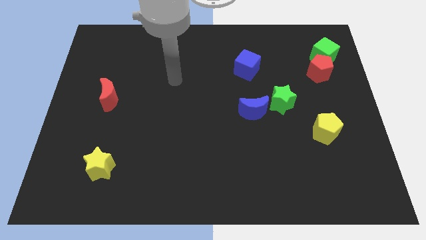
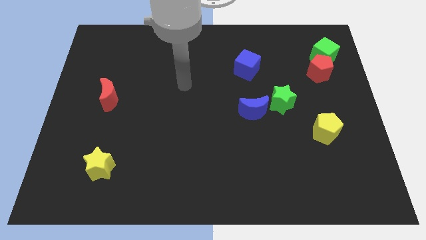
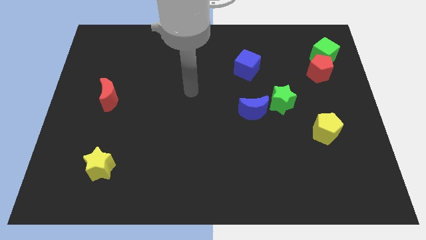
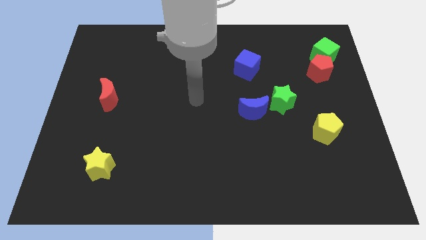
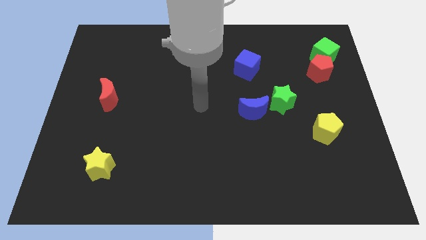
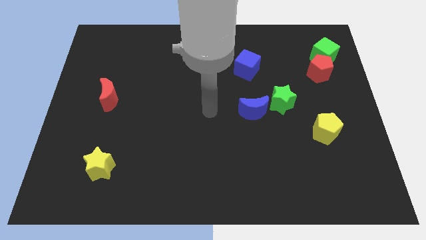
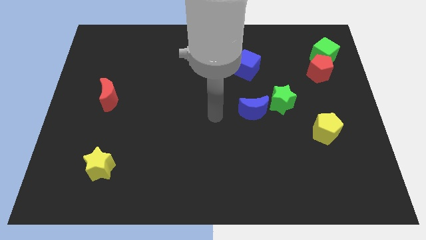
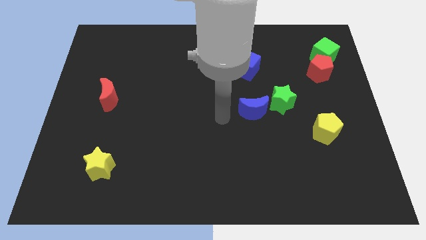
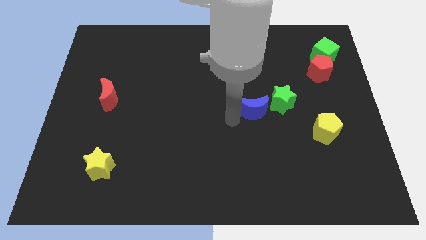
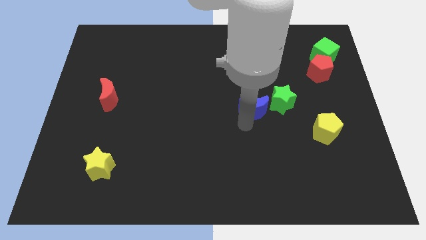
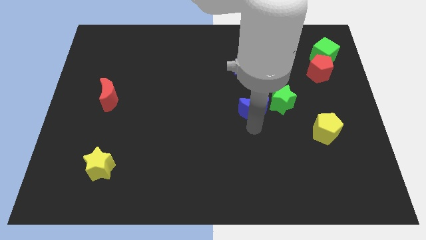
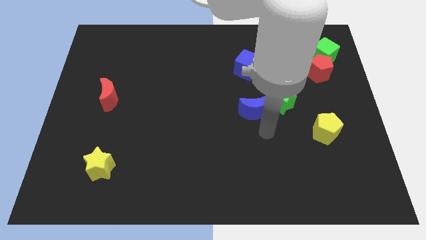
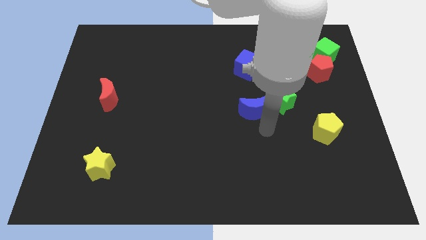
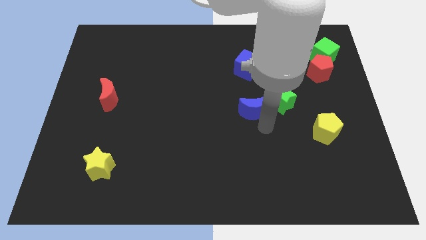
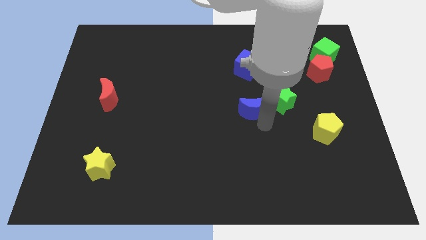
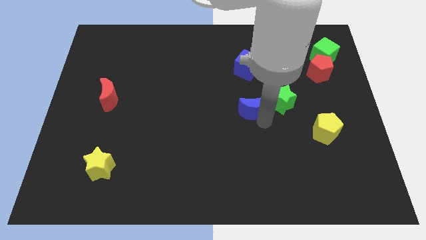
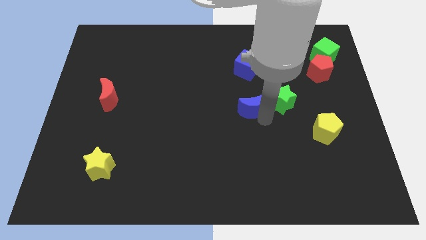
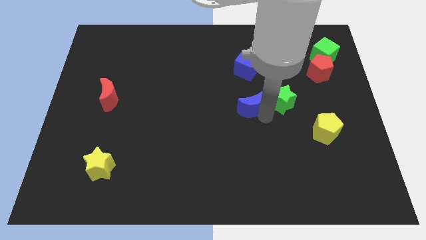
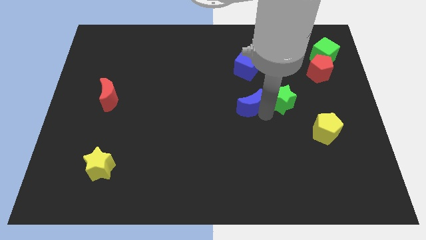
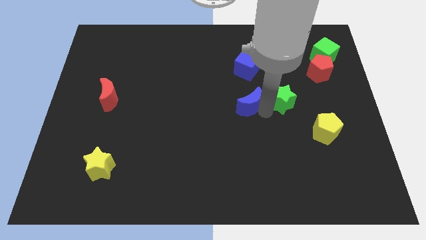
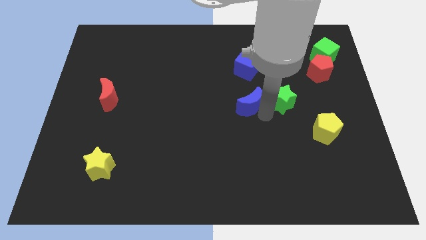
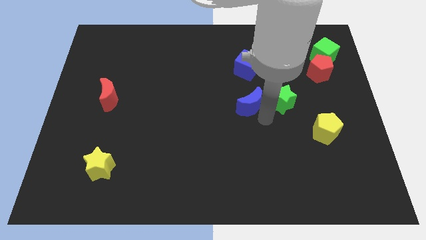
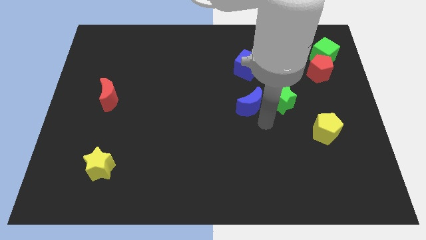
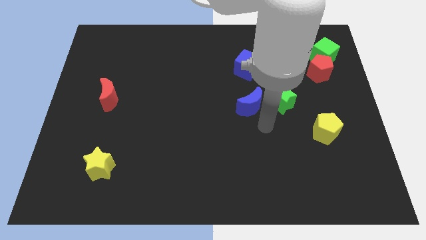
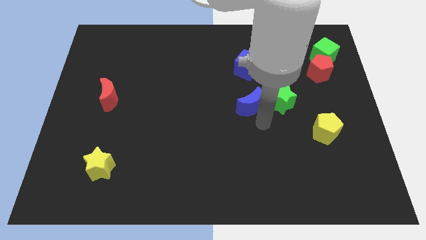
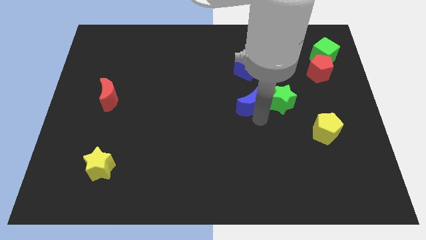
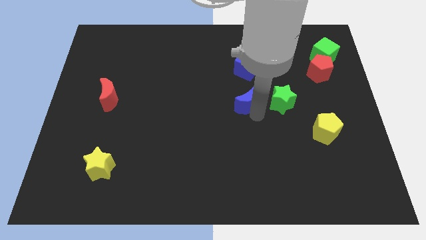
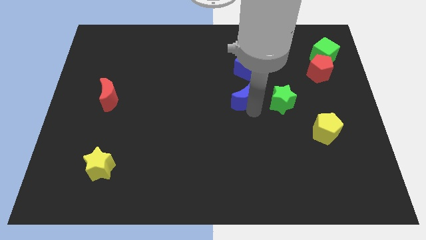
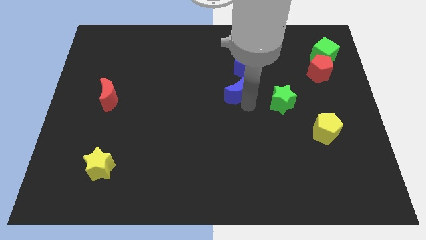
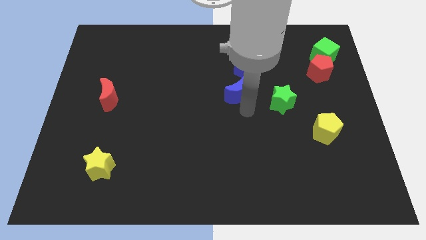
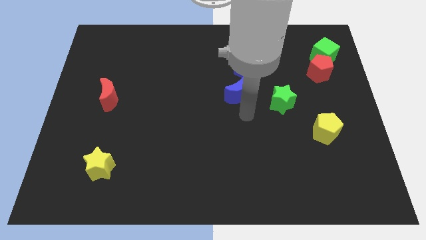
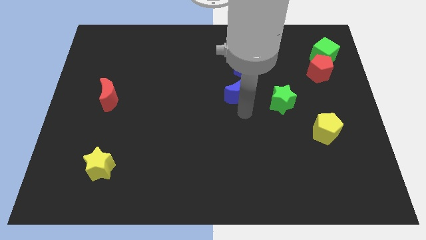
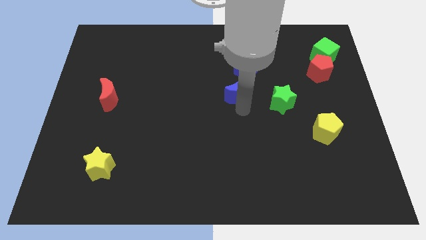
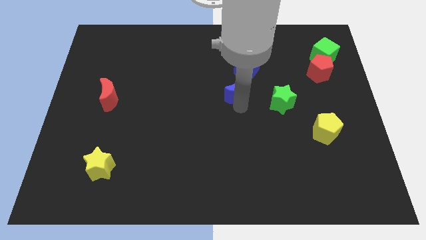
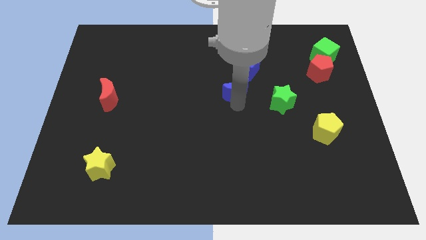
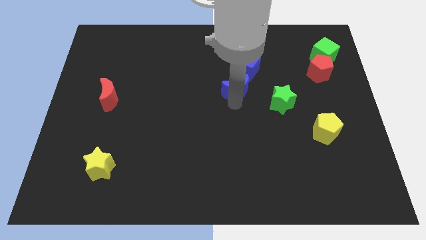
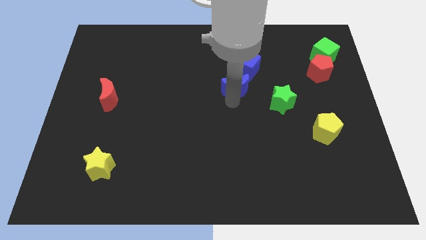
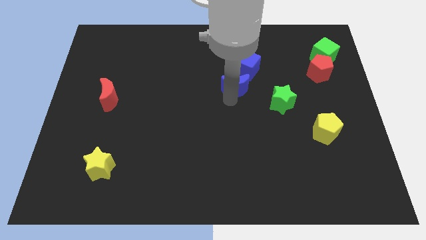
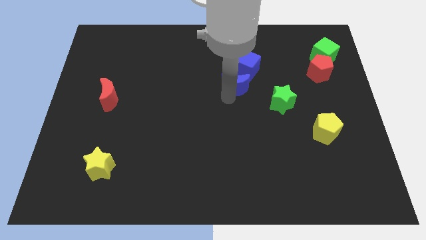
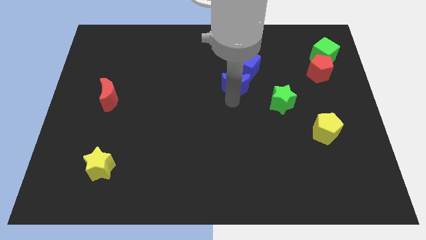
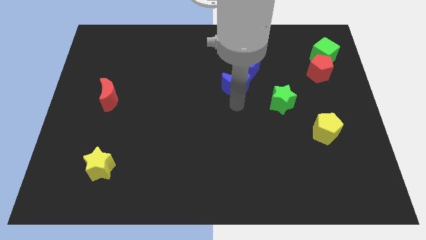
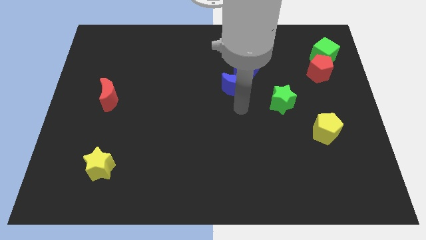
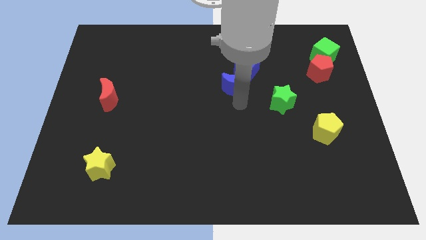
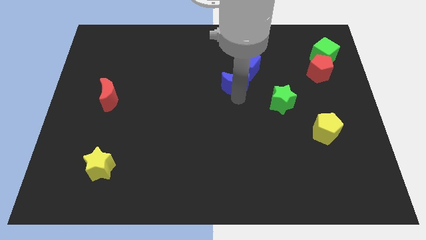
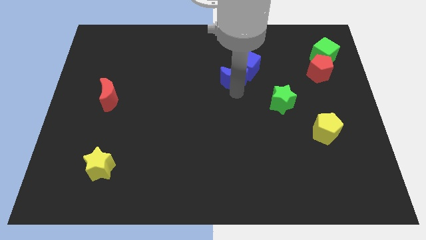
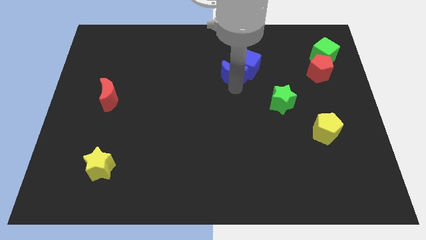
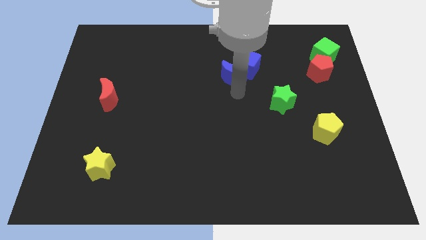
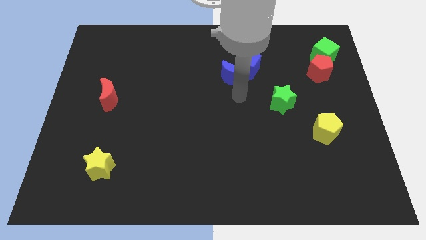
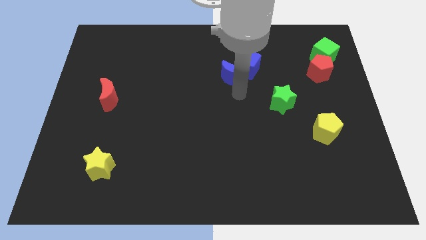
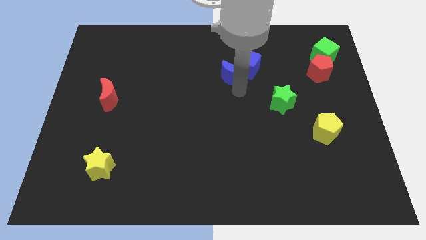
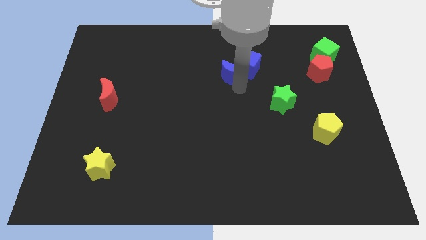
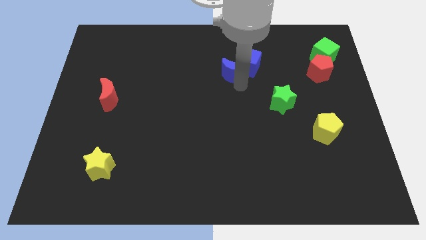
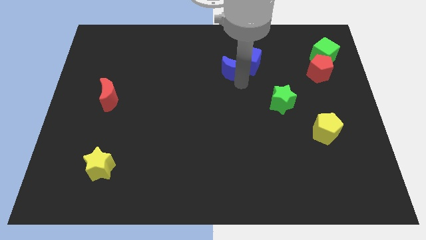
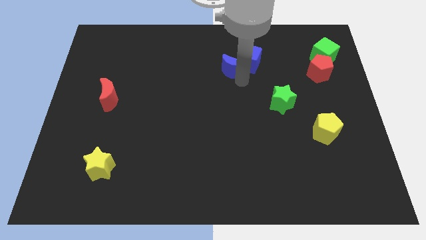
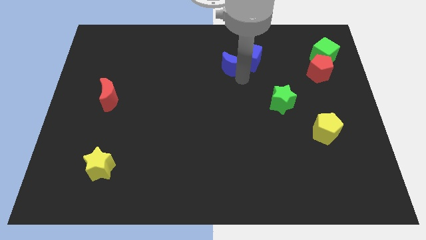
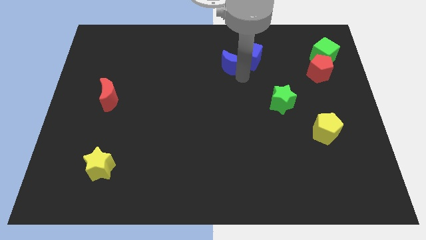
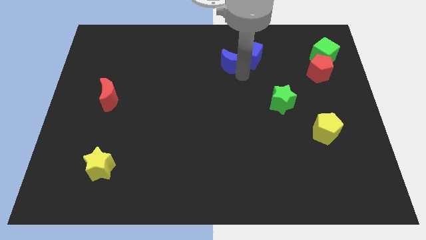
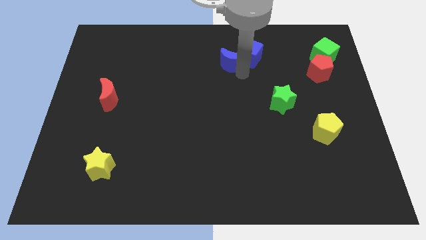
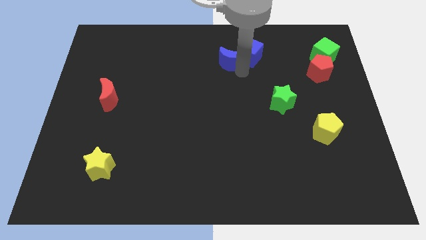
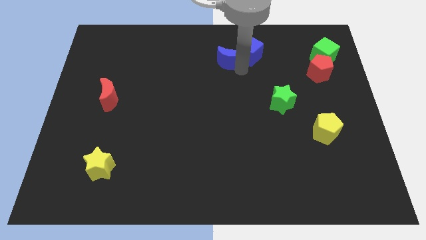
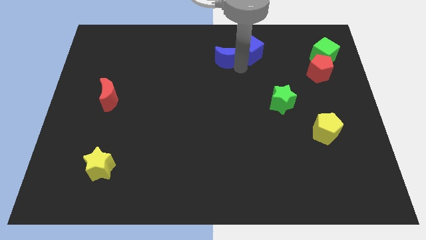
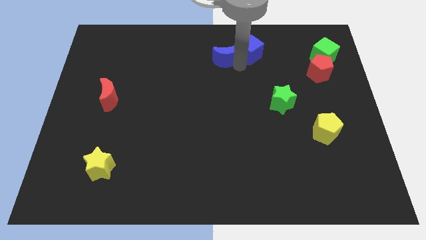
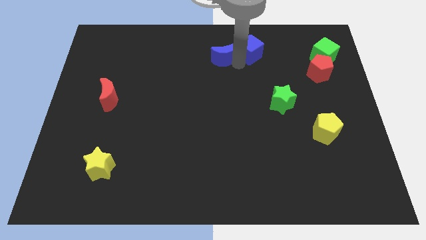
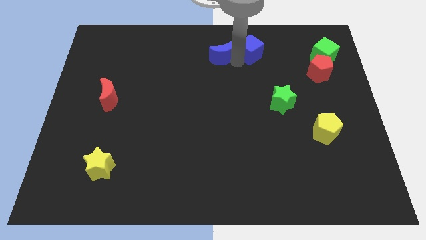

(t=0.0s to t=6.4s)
push the blue moon to the towards your base
